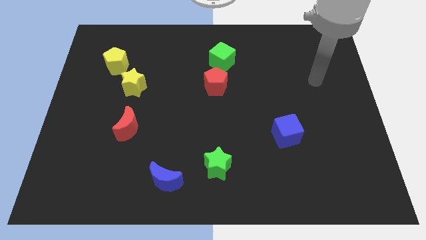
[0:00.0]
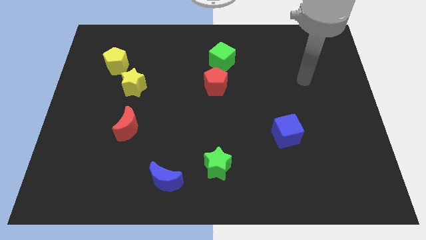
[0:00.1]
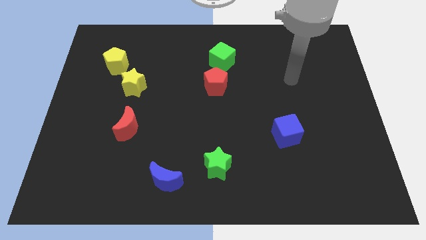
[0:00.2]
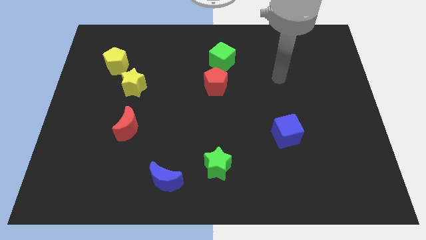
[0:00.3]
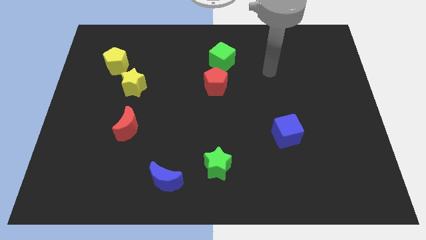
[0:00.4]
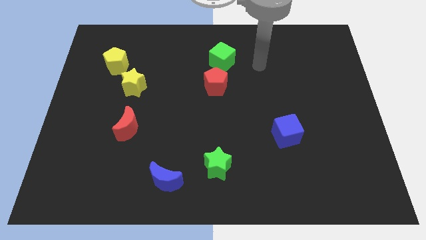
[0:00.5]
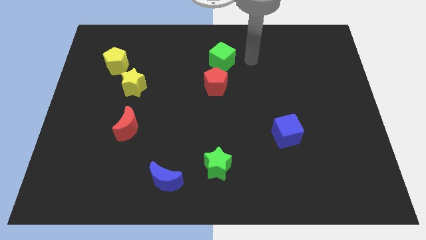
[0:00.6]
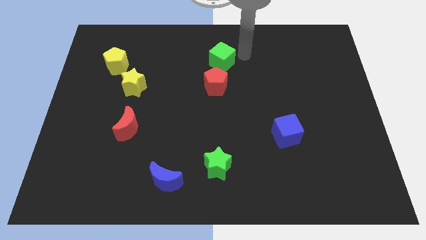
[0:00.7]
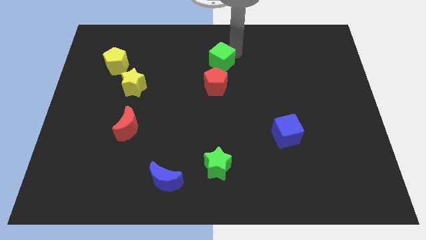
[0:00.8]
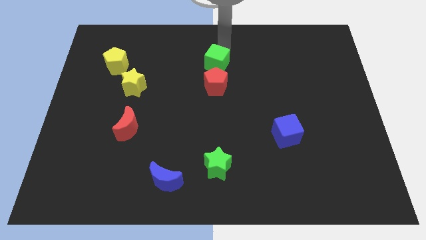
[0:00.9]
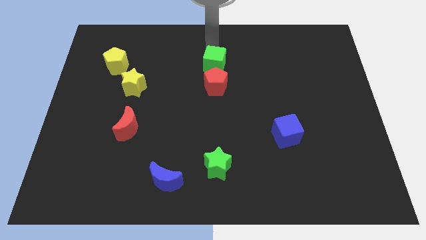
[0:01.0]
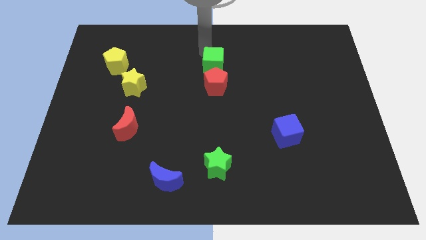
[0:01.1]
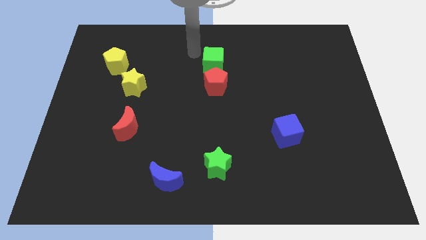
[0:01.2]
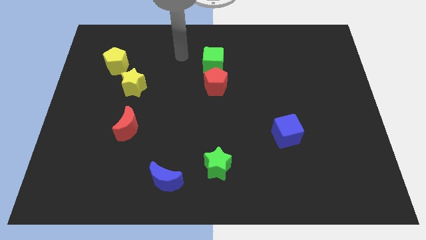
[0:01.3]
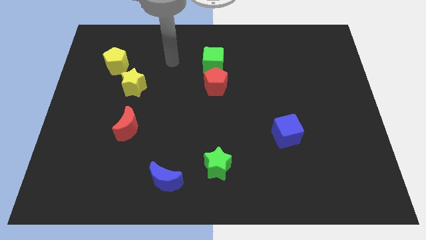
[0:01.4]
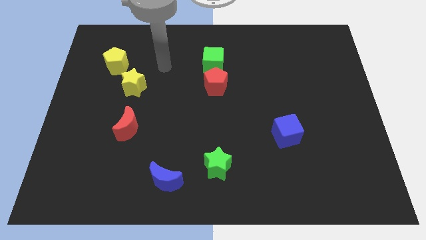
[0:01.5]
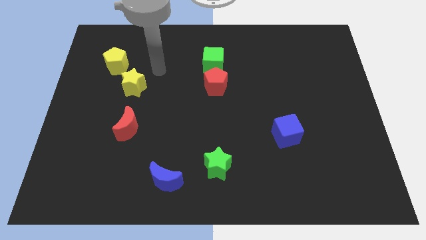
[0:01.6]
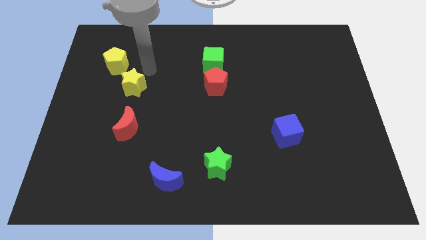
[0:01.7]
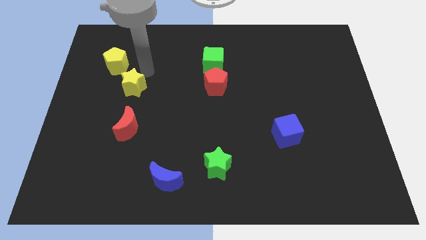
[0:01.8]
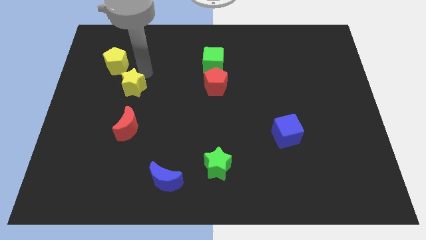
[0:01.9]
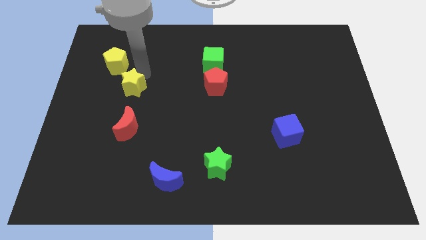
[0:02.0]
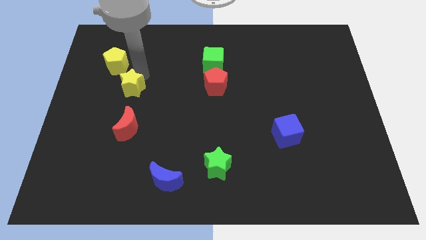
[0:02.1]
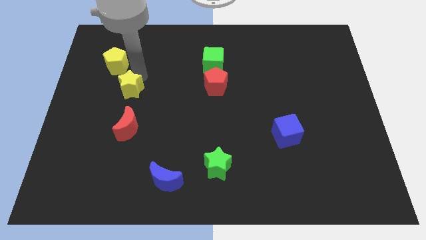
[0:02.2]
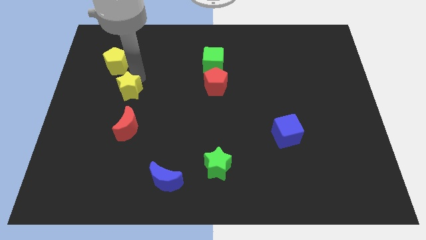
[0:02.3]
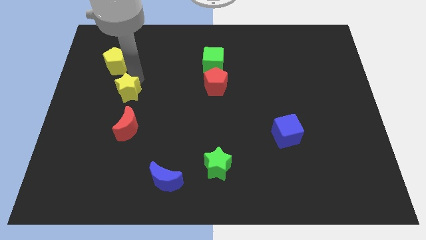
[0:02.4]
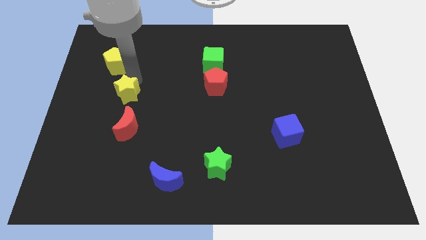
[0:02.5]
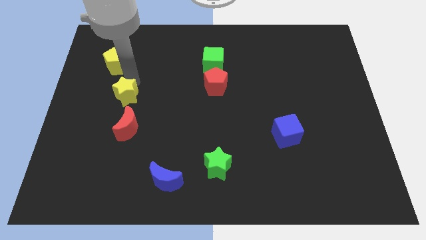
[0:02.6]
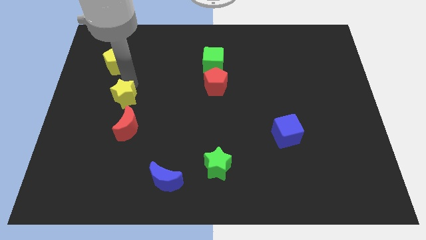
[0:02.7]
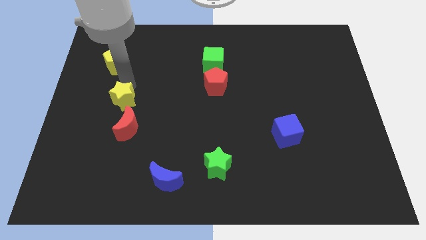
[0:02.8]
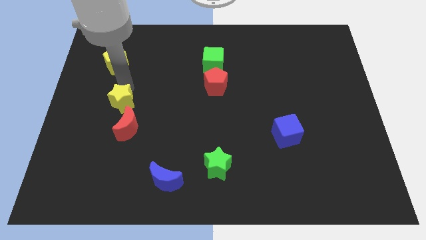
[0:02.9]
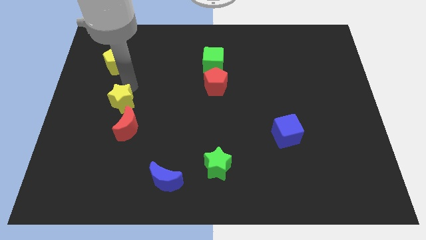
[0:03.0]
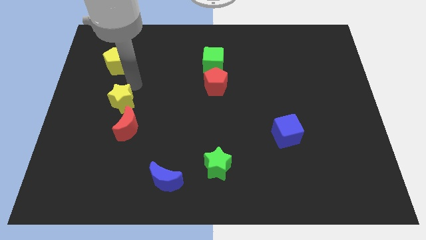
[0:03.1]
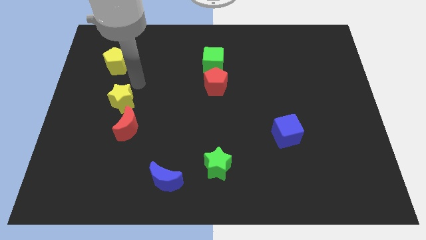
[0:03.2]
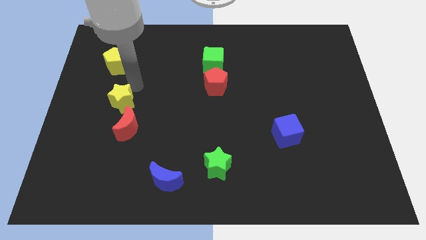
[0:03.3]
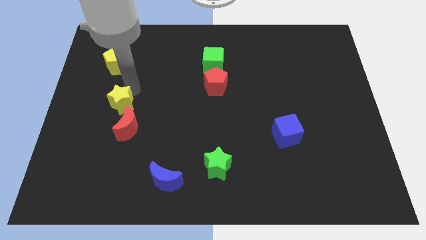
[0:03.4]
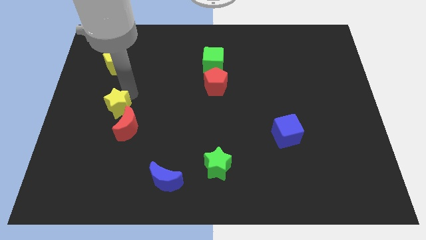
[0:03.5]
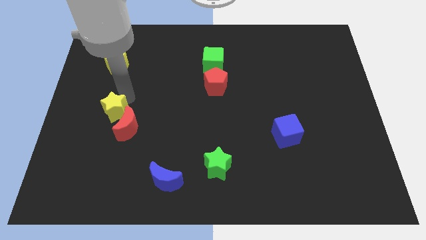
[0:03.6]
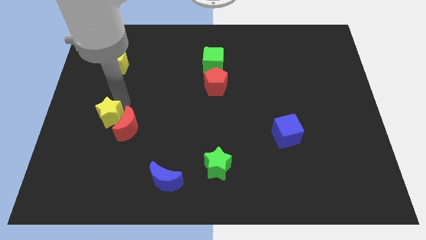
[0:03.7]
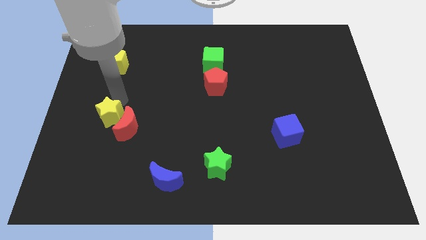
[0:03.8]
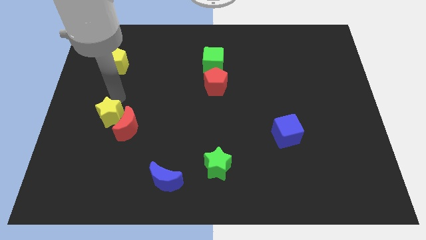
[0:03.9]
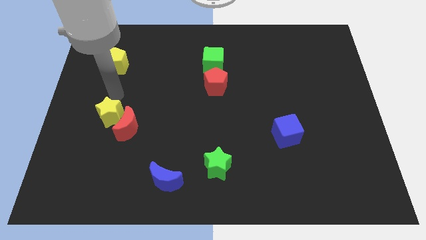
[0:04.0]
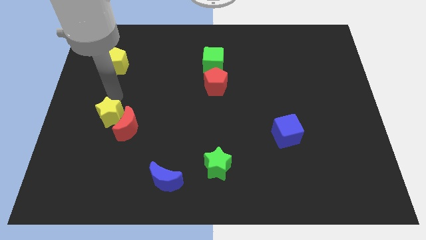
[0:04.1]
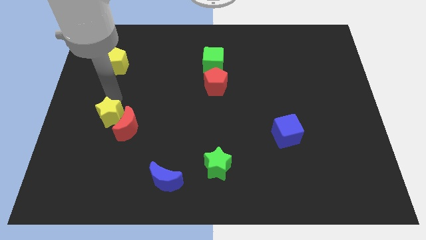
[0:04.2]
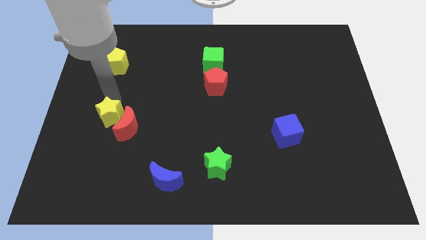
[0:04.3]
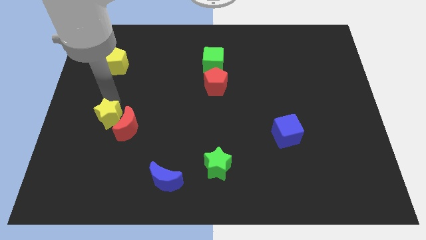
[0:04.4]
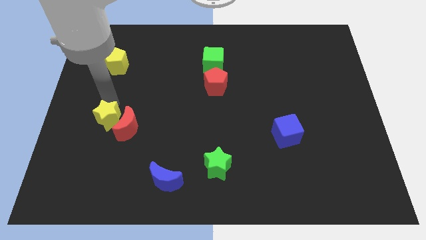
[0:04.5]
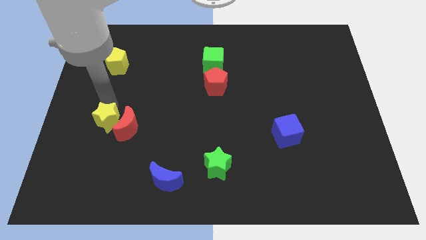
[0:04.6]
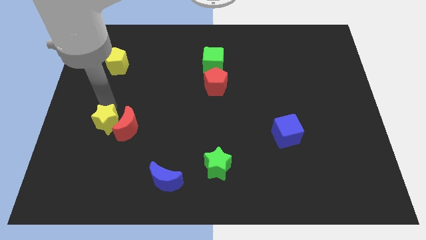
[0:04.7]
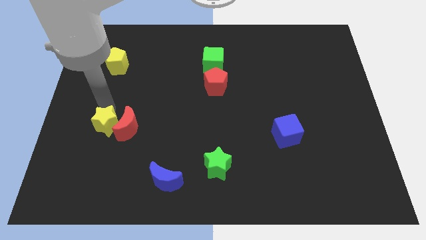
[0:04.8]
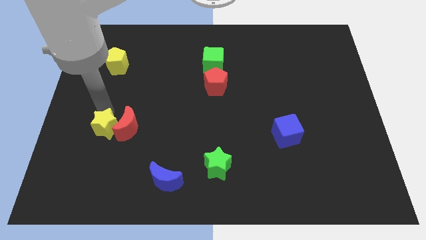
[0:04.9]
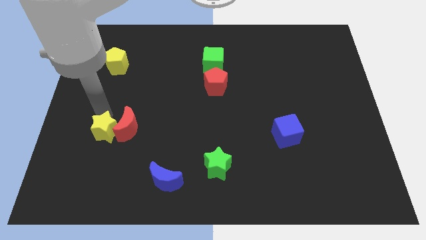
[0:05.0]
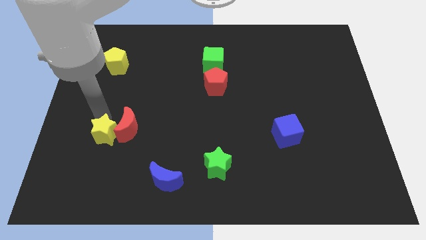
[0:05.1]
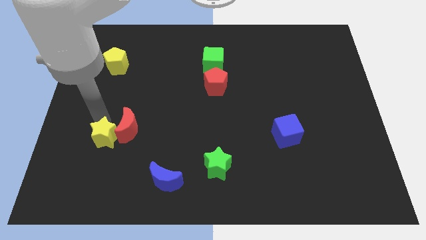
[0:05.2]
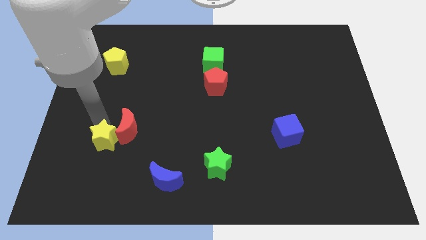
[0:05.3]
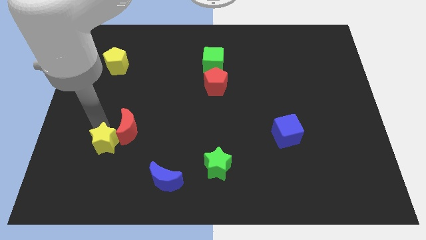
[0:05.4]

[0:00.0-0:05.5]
slide the yellow star to the bottom side of the red moon

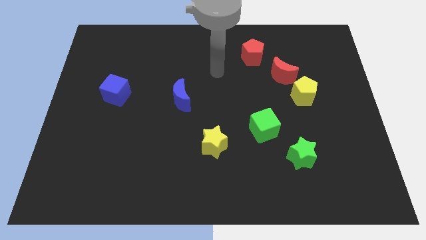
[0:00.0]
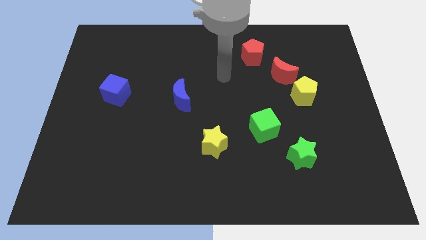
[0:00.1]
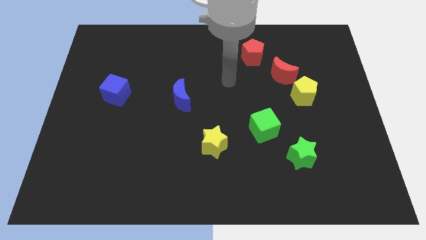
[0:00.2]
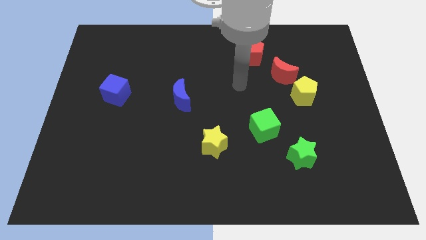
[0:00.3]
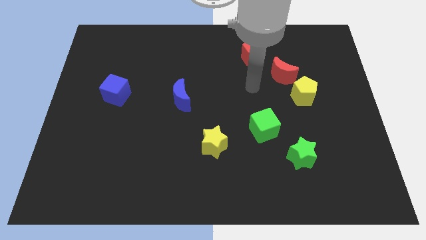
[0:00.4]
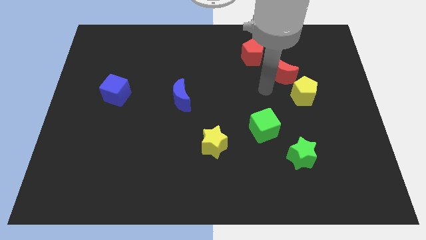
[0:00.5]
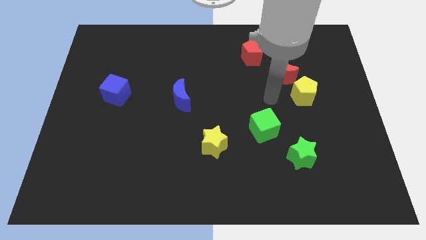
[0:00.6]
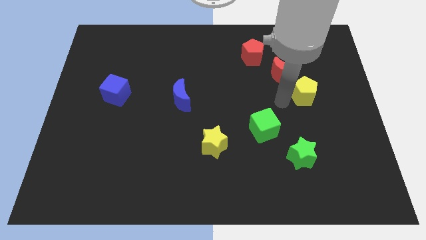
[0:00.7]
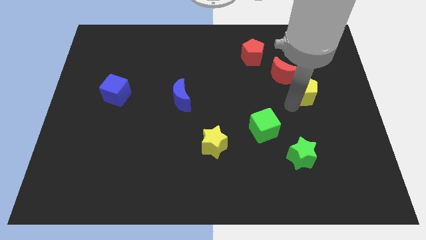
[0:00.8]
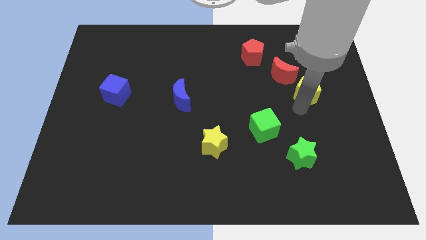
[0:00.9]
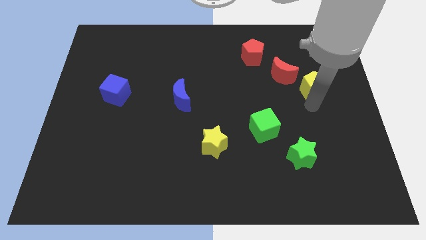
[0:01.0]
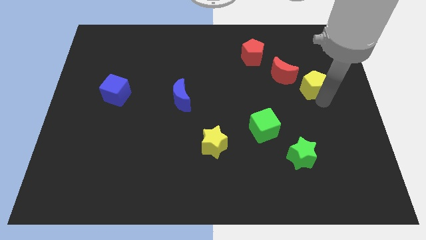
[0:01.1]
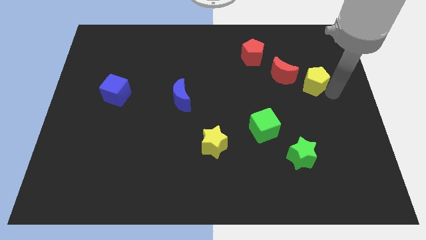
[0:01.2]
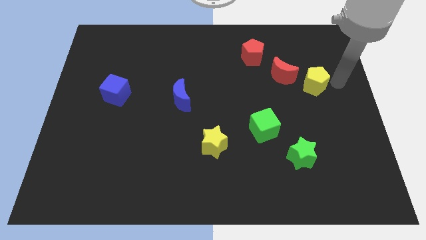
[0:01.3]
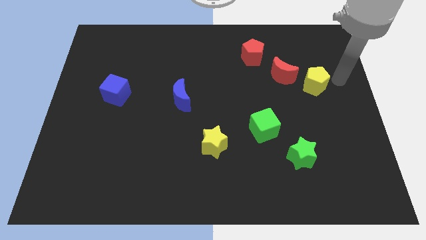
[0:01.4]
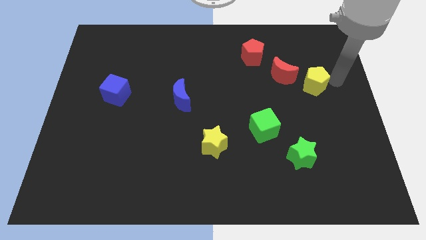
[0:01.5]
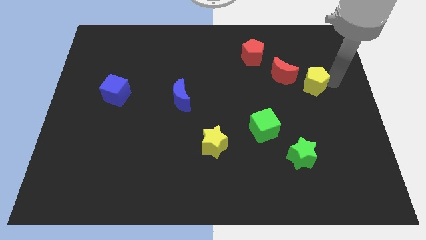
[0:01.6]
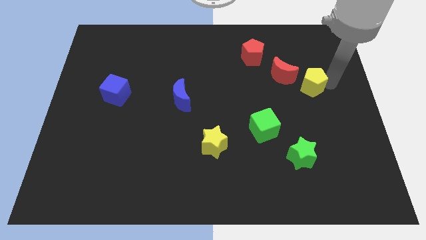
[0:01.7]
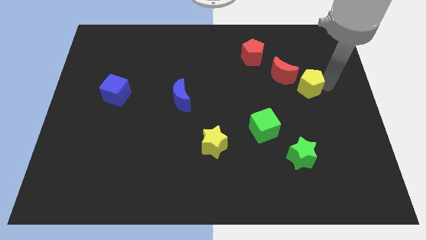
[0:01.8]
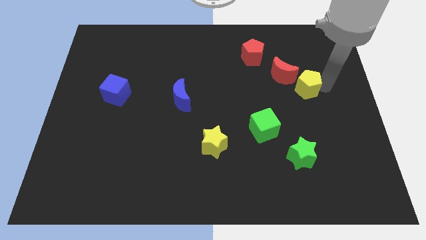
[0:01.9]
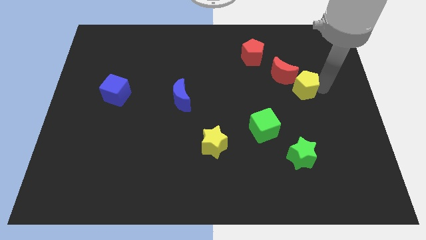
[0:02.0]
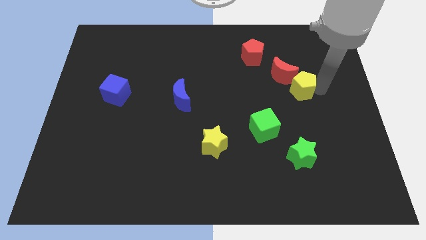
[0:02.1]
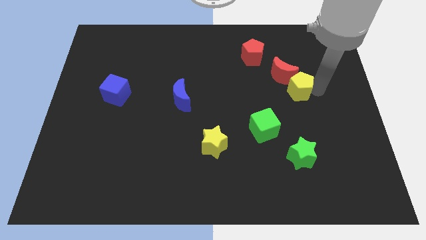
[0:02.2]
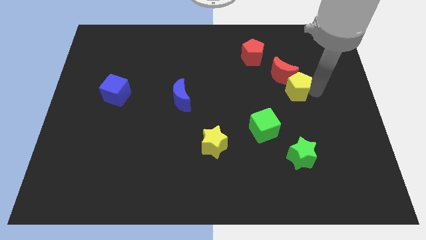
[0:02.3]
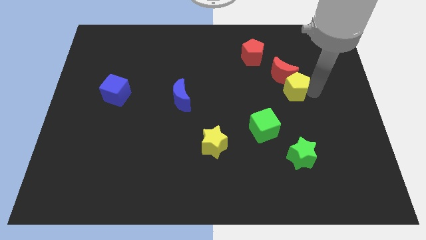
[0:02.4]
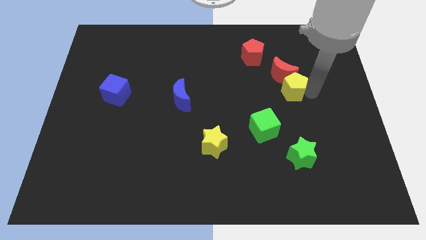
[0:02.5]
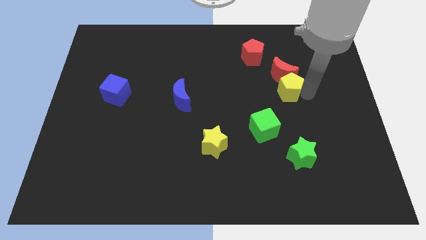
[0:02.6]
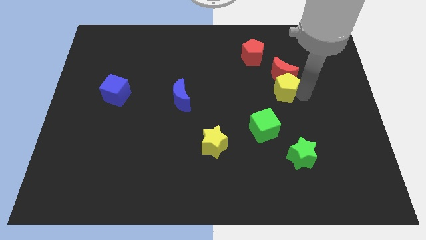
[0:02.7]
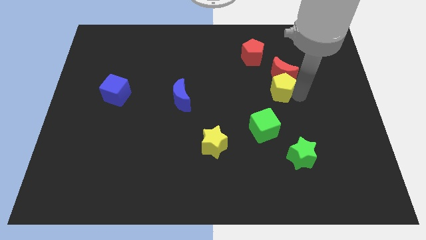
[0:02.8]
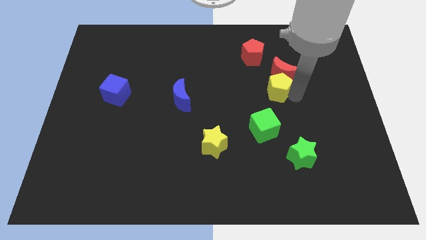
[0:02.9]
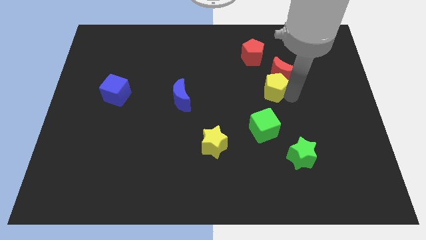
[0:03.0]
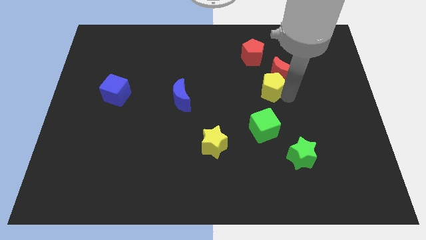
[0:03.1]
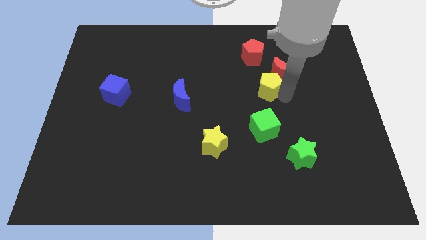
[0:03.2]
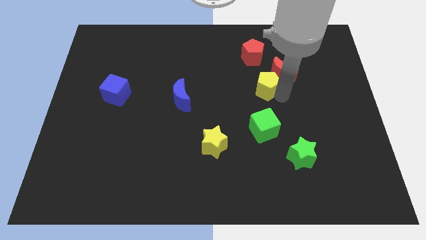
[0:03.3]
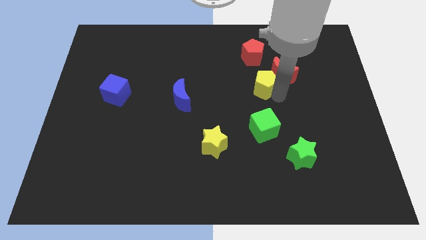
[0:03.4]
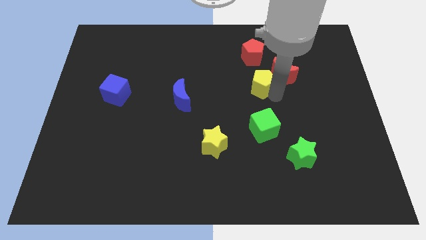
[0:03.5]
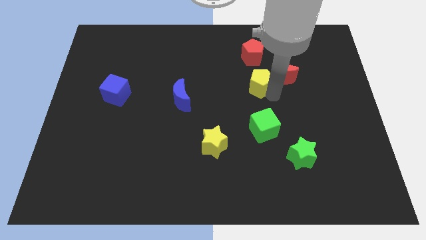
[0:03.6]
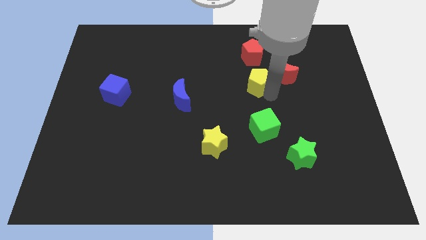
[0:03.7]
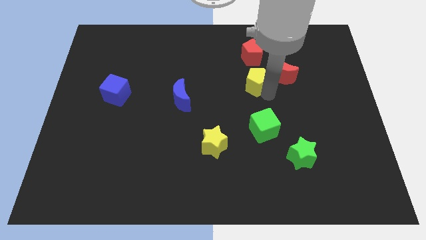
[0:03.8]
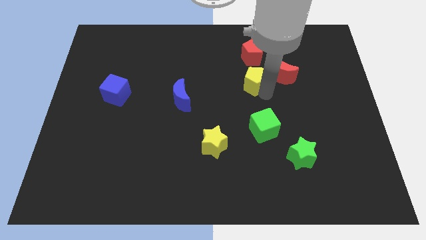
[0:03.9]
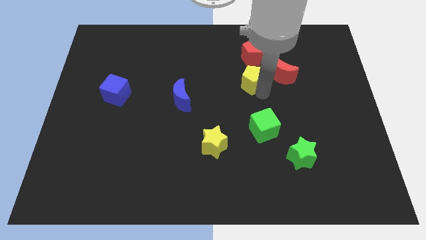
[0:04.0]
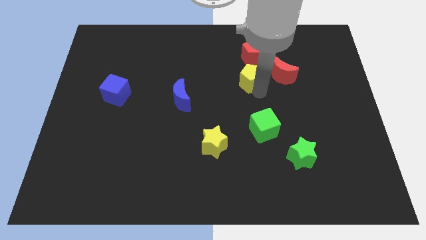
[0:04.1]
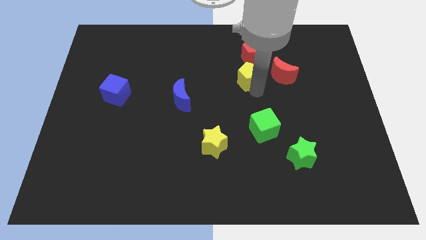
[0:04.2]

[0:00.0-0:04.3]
push the yellow pentagon to the bottom left side of the red pentagon
